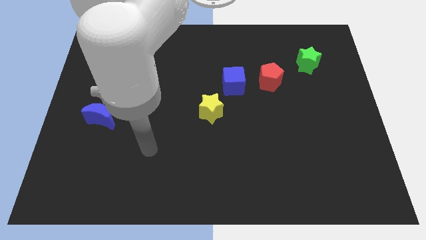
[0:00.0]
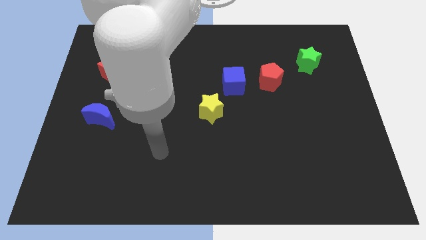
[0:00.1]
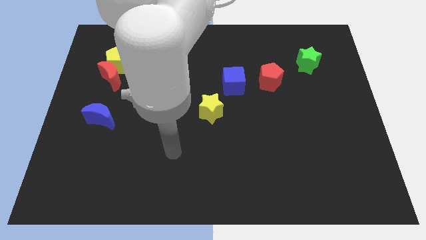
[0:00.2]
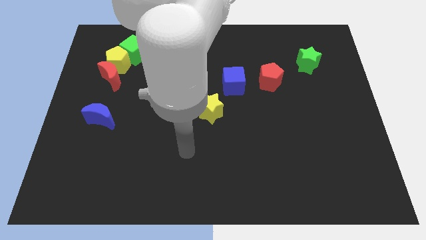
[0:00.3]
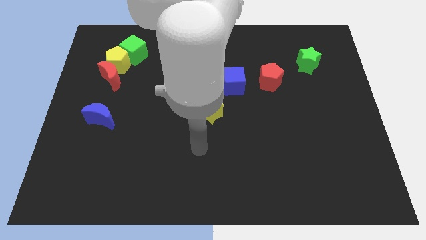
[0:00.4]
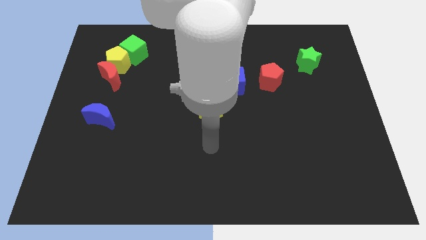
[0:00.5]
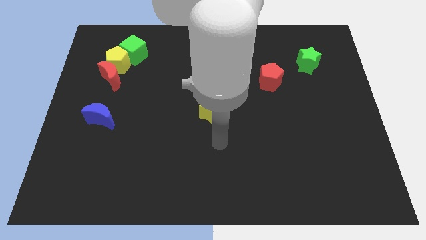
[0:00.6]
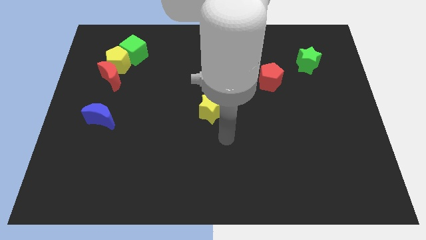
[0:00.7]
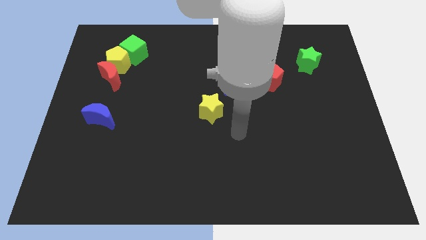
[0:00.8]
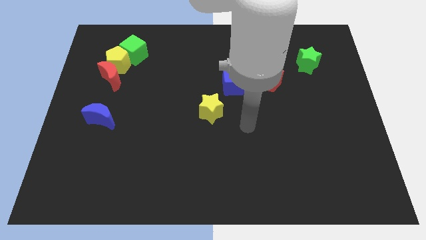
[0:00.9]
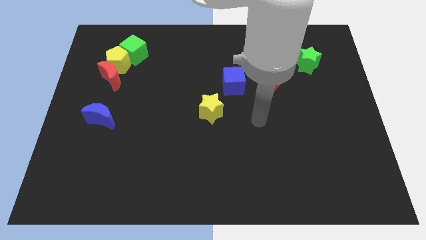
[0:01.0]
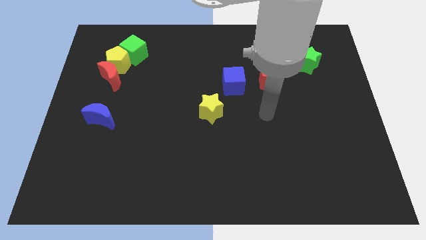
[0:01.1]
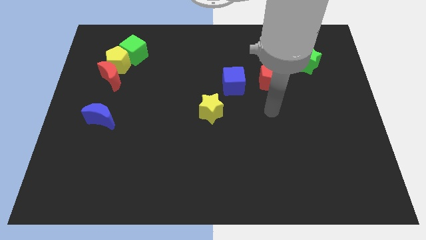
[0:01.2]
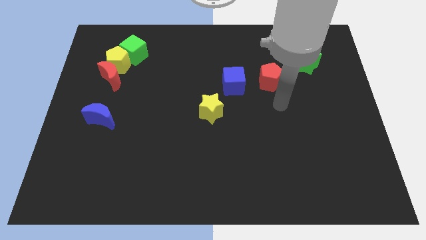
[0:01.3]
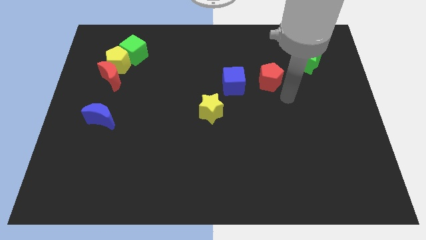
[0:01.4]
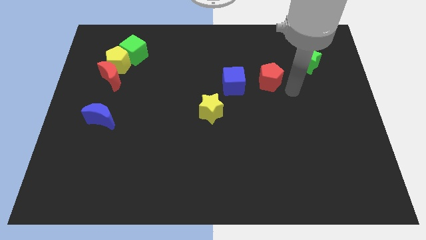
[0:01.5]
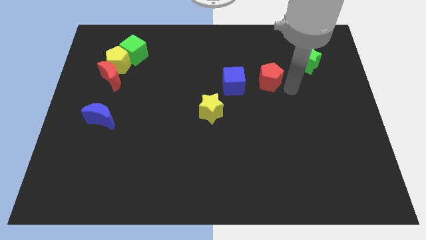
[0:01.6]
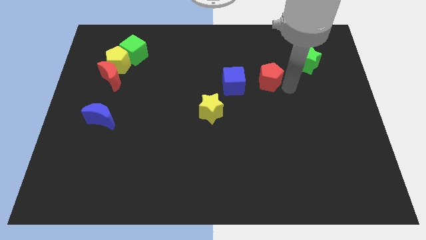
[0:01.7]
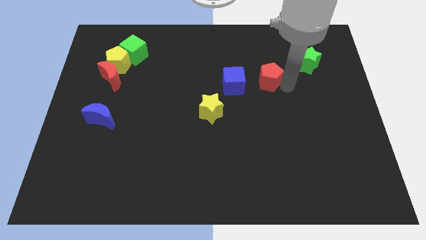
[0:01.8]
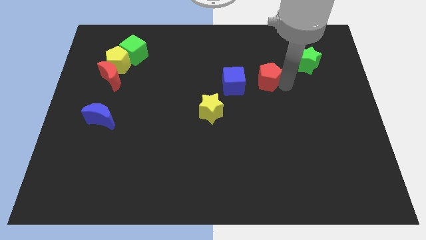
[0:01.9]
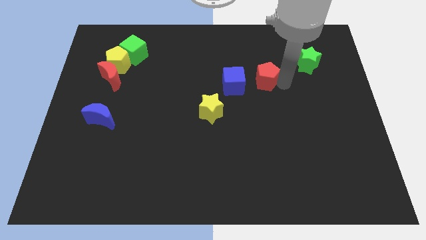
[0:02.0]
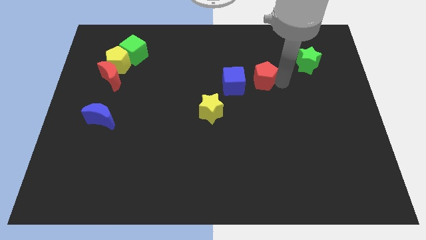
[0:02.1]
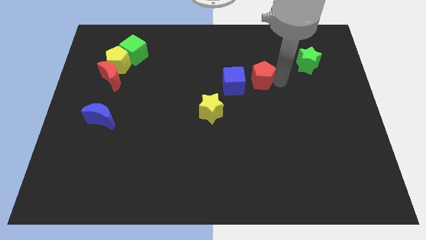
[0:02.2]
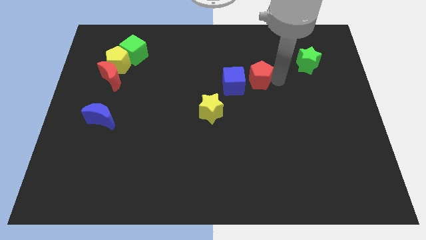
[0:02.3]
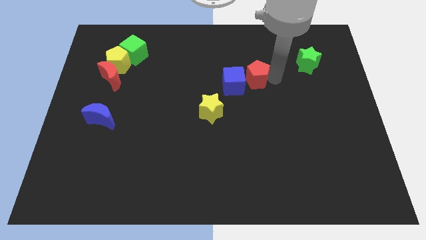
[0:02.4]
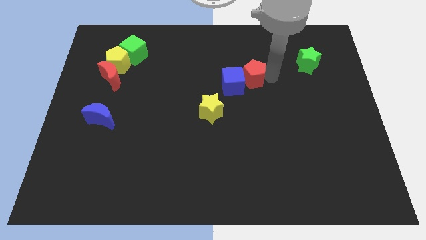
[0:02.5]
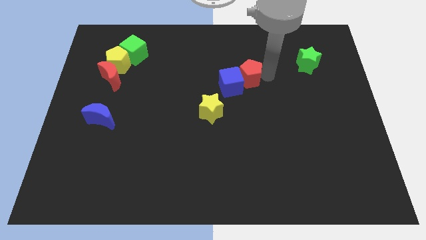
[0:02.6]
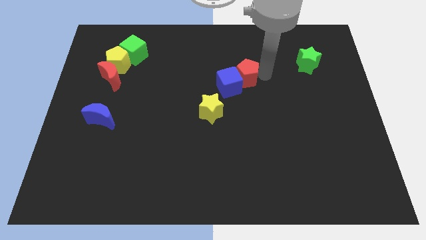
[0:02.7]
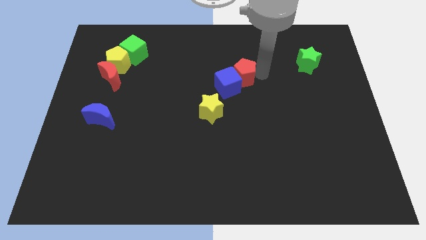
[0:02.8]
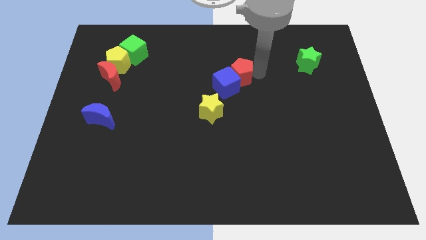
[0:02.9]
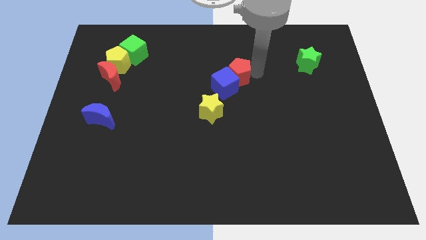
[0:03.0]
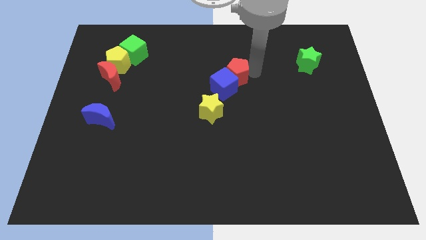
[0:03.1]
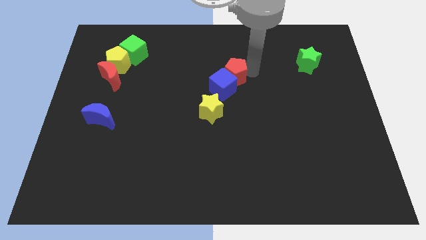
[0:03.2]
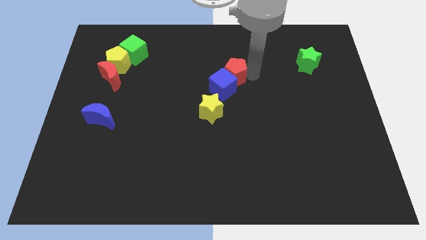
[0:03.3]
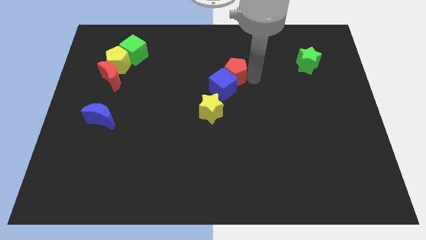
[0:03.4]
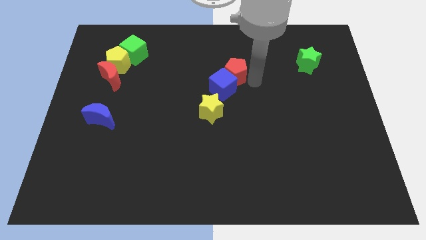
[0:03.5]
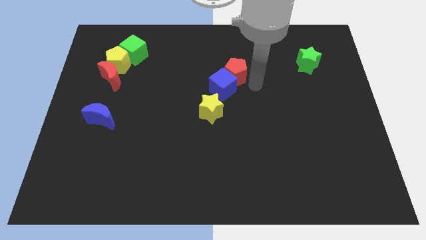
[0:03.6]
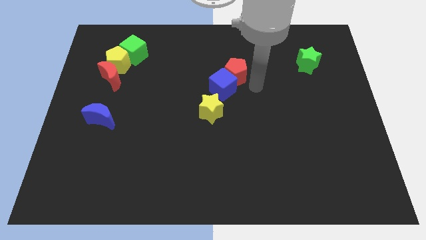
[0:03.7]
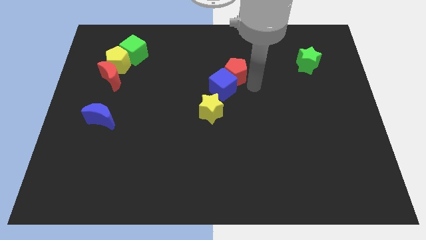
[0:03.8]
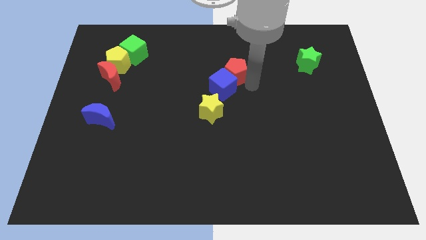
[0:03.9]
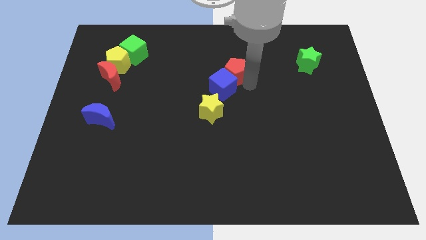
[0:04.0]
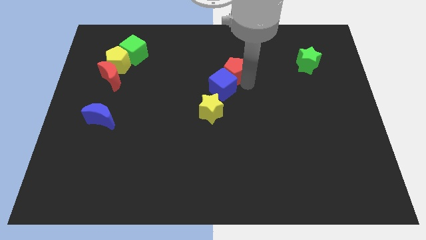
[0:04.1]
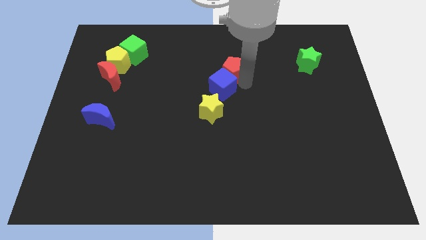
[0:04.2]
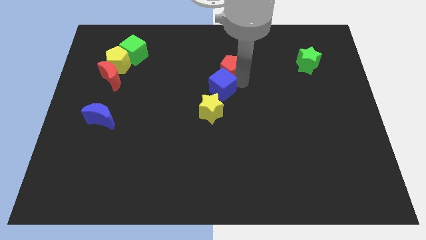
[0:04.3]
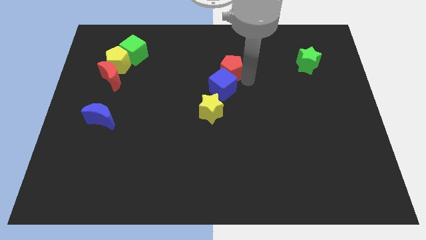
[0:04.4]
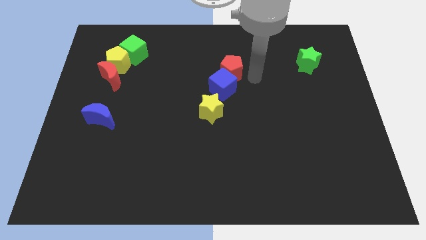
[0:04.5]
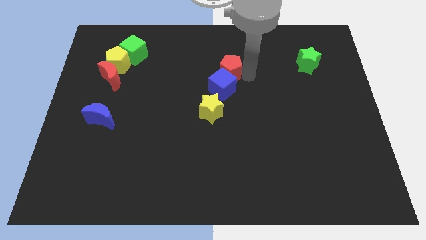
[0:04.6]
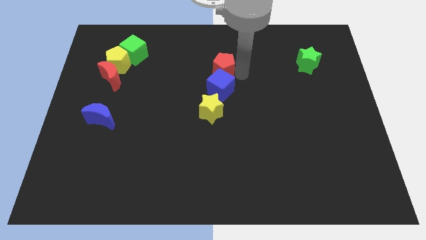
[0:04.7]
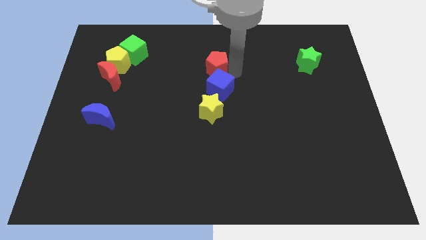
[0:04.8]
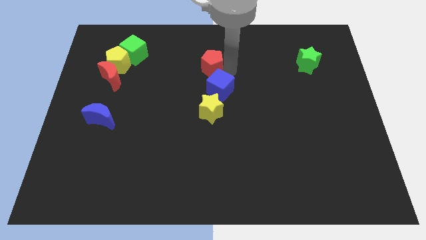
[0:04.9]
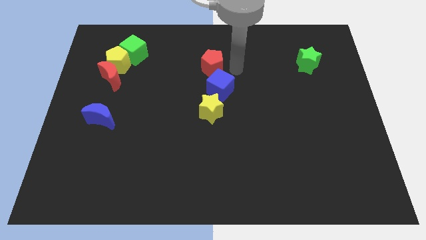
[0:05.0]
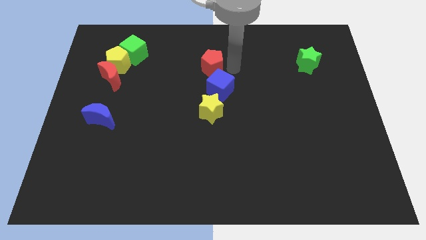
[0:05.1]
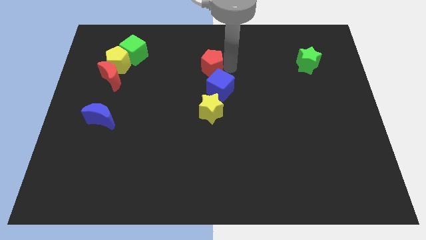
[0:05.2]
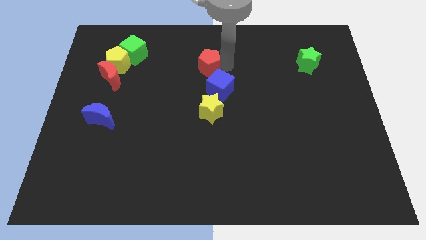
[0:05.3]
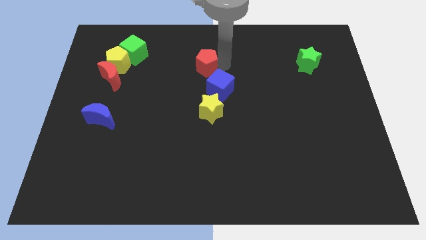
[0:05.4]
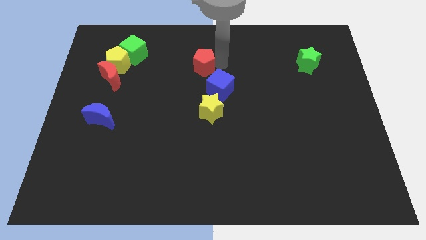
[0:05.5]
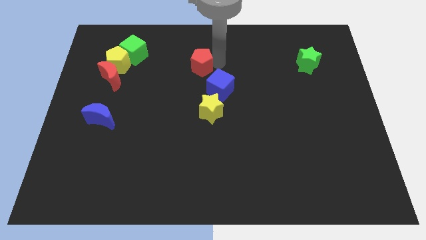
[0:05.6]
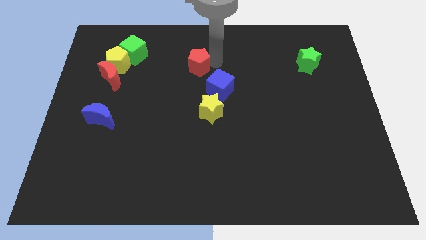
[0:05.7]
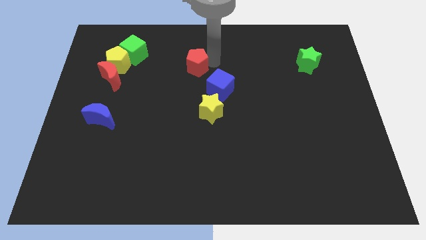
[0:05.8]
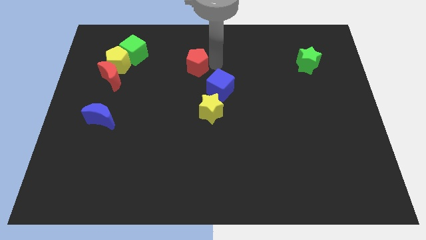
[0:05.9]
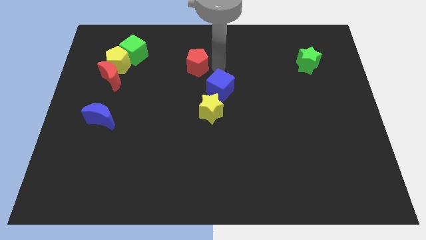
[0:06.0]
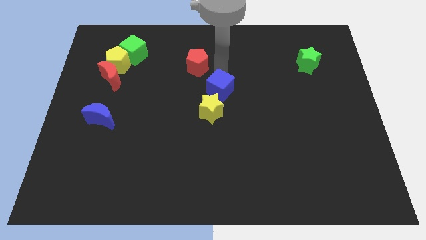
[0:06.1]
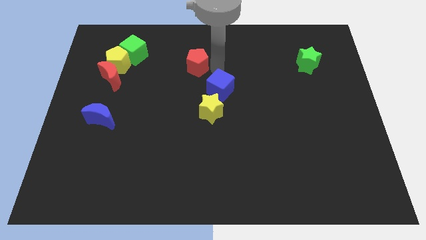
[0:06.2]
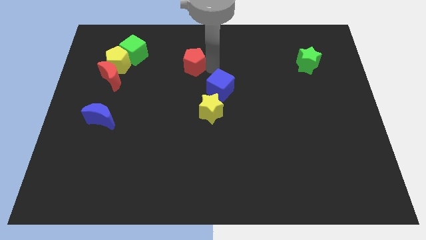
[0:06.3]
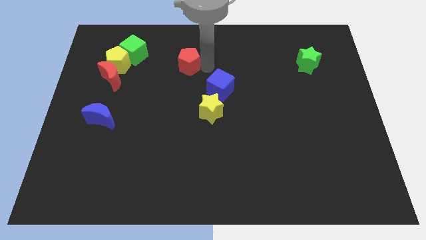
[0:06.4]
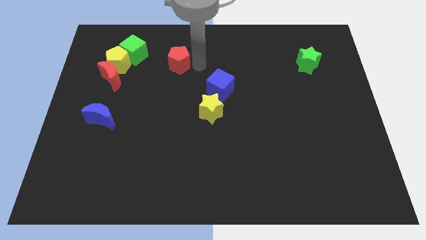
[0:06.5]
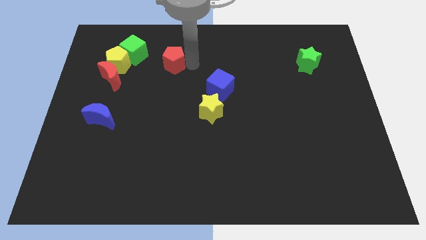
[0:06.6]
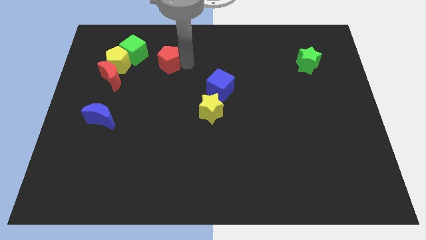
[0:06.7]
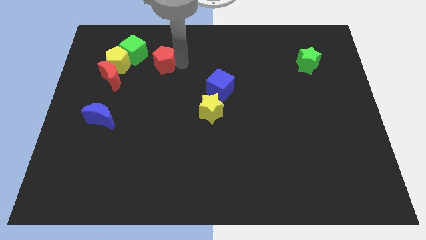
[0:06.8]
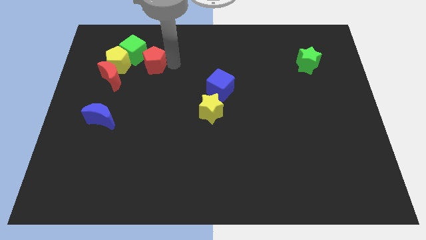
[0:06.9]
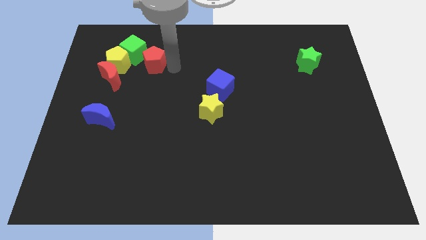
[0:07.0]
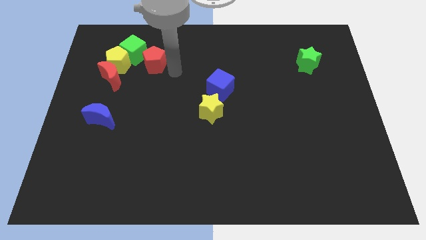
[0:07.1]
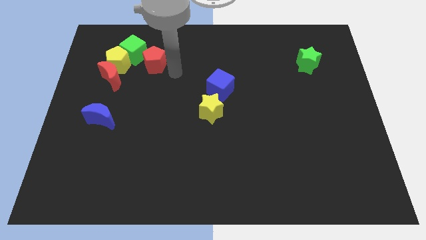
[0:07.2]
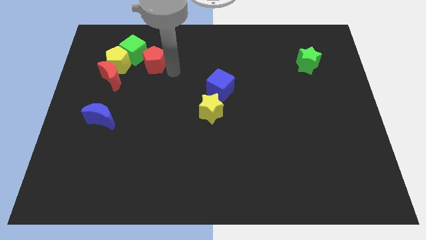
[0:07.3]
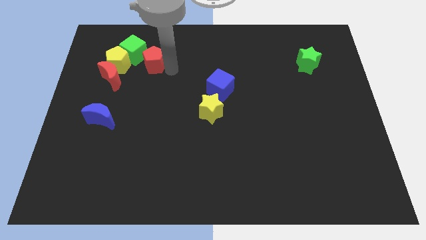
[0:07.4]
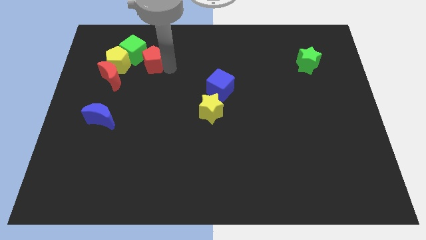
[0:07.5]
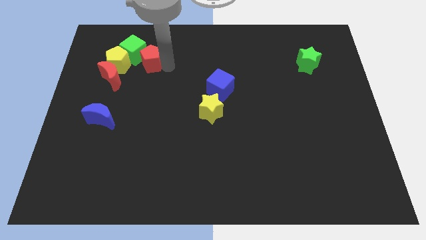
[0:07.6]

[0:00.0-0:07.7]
move the red pentagon close to the green cube
